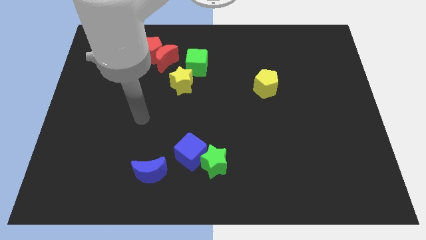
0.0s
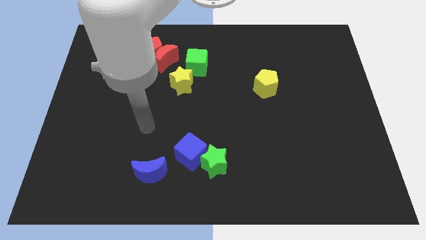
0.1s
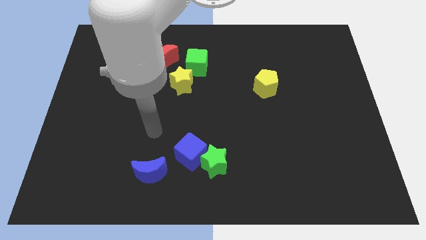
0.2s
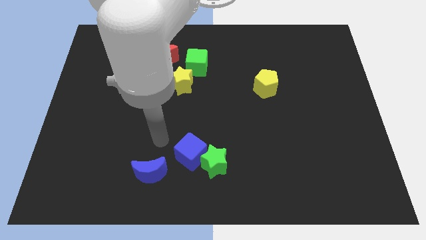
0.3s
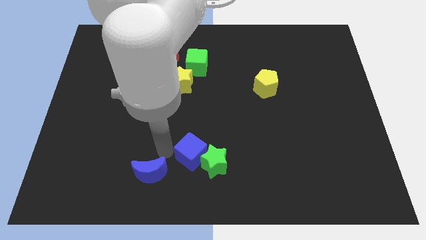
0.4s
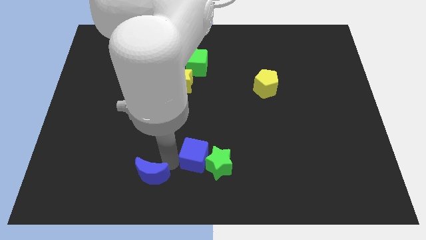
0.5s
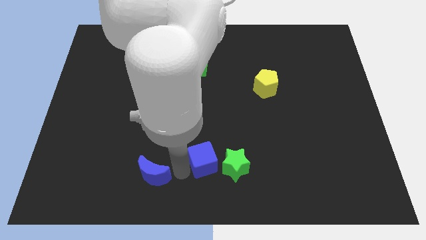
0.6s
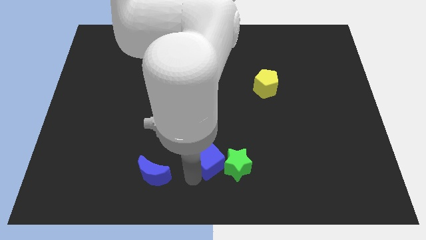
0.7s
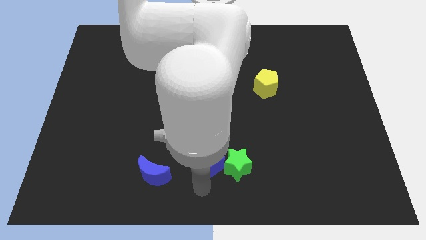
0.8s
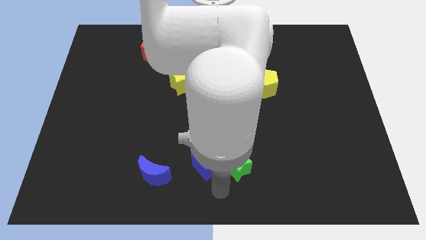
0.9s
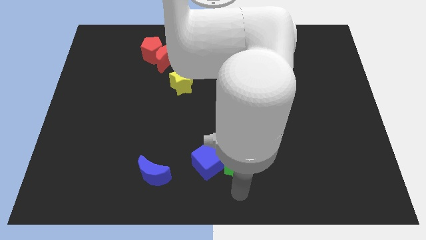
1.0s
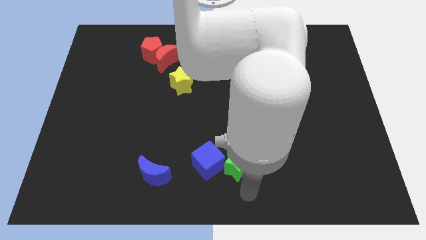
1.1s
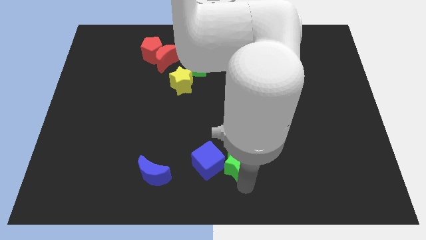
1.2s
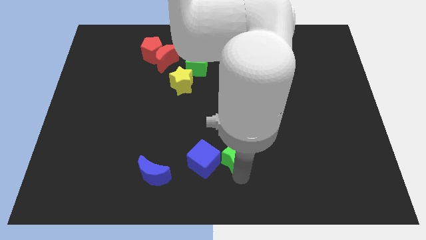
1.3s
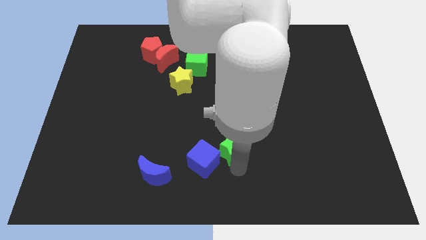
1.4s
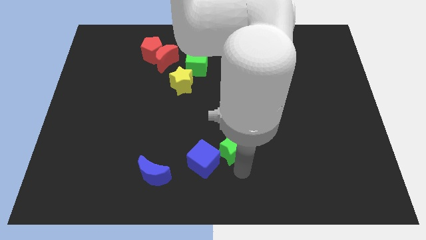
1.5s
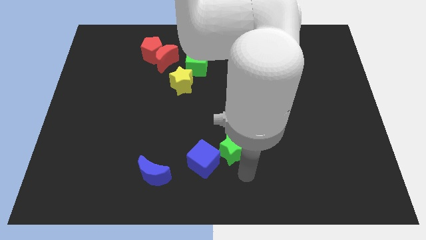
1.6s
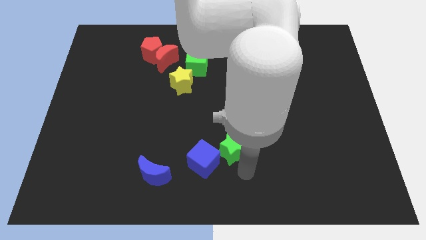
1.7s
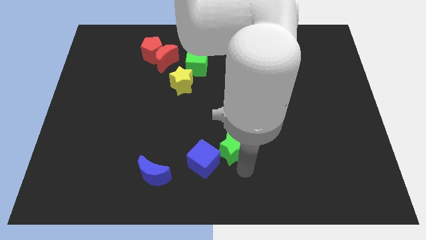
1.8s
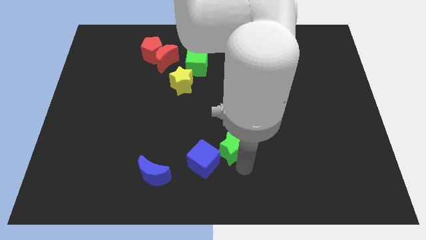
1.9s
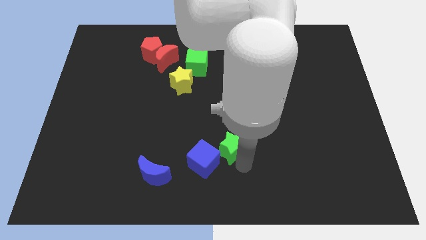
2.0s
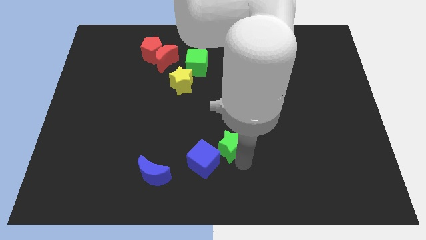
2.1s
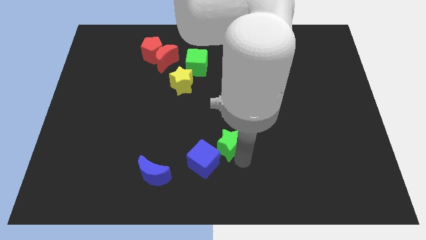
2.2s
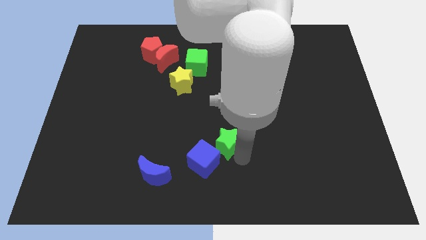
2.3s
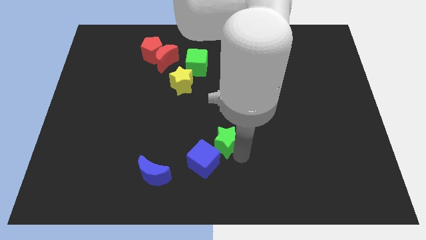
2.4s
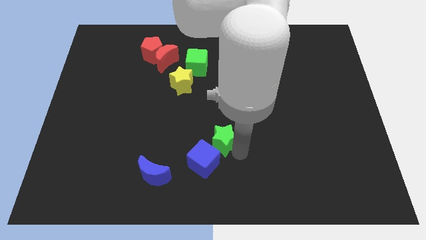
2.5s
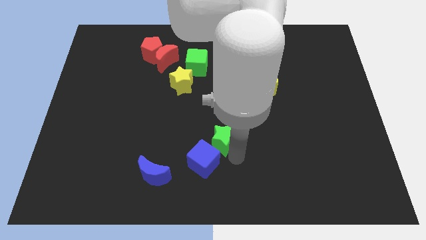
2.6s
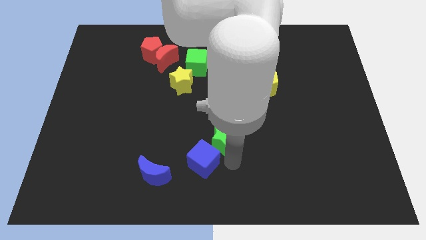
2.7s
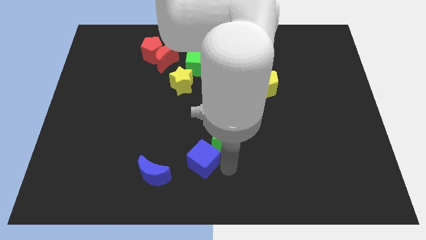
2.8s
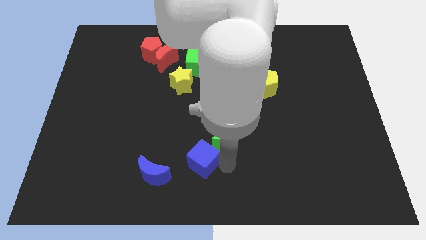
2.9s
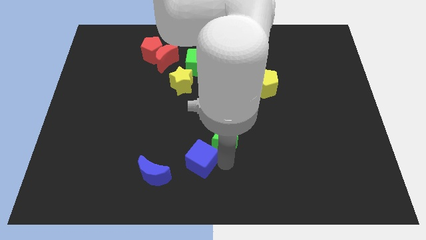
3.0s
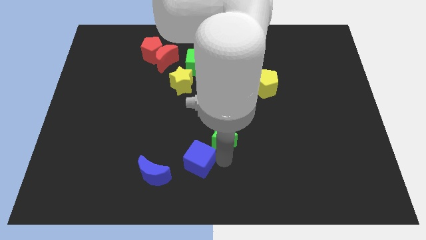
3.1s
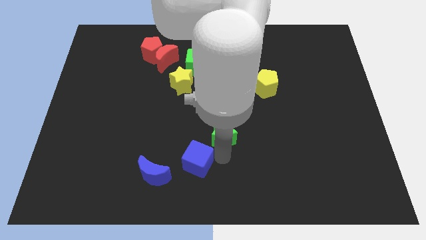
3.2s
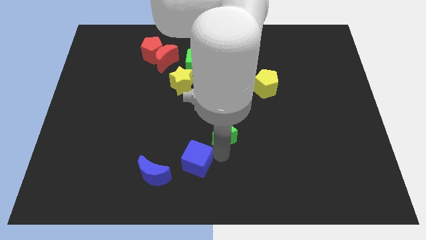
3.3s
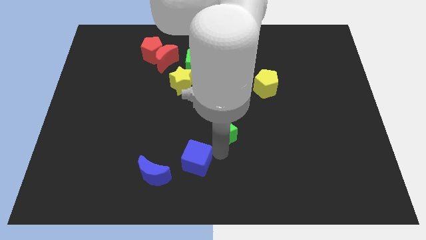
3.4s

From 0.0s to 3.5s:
move the green star slightly up

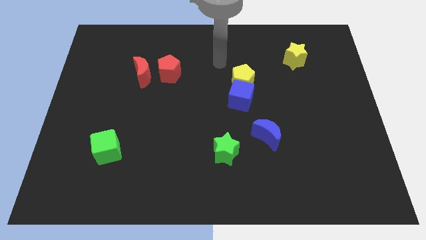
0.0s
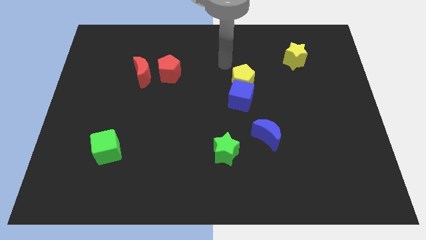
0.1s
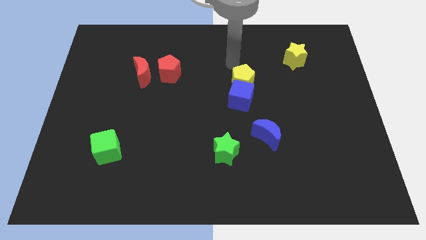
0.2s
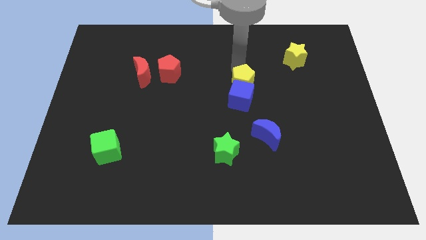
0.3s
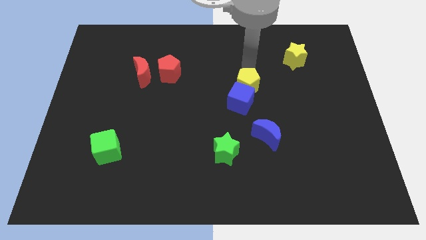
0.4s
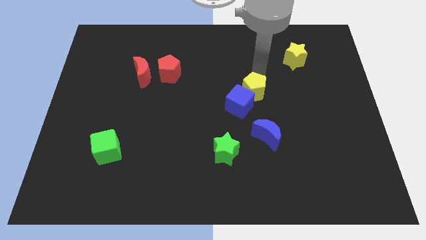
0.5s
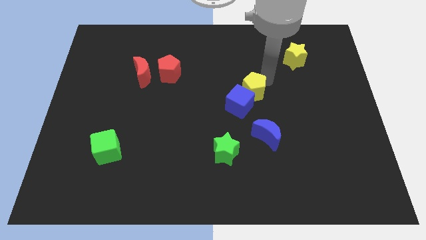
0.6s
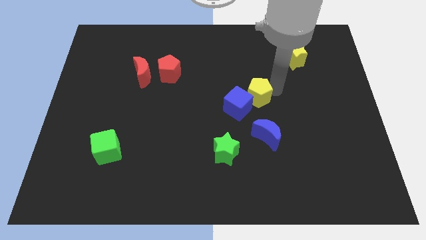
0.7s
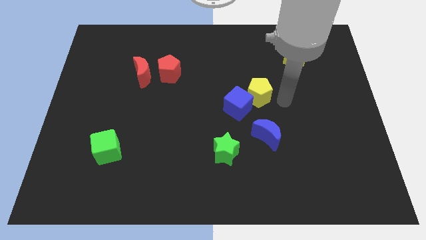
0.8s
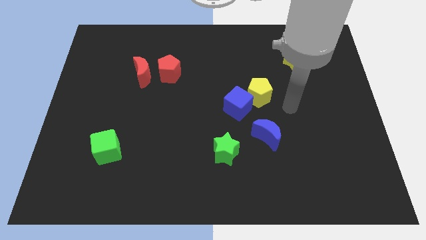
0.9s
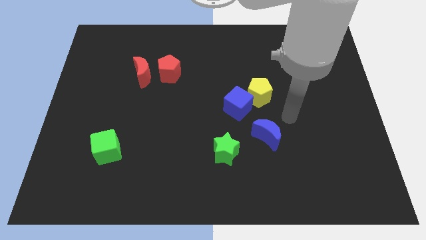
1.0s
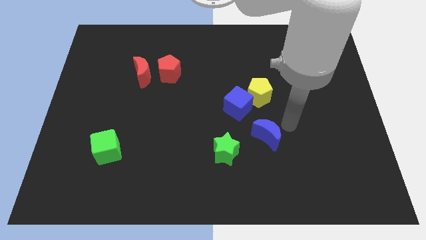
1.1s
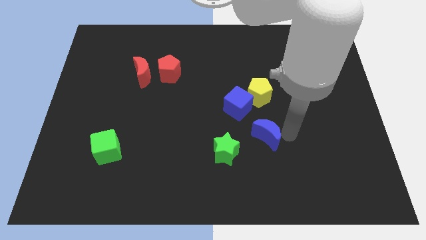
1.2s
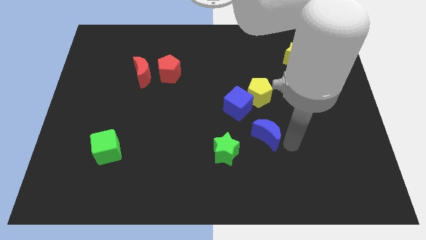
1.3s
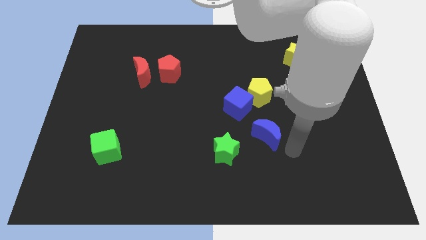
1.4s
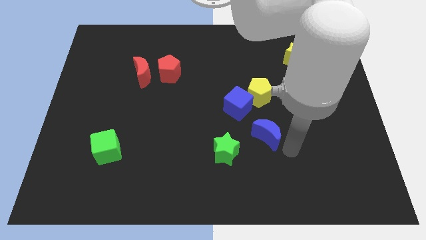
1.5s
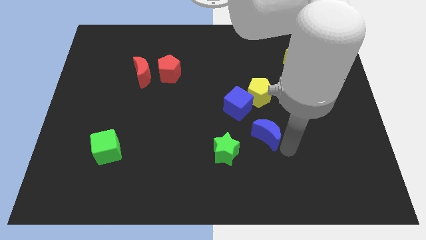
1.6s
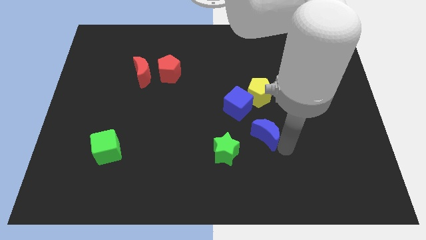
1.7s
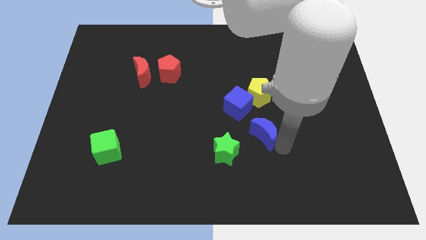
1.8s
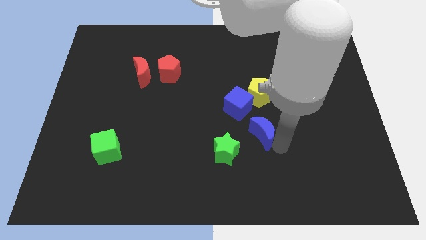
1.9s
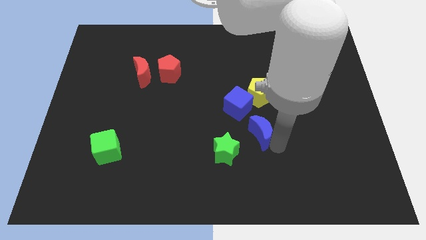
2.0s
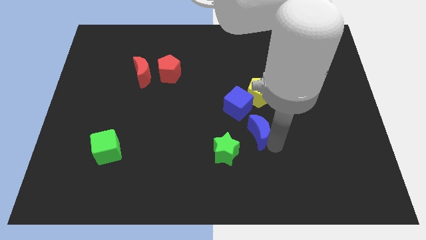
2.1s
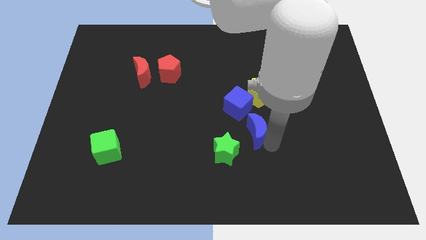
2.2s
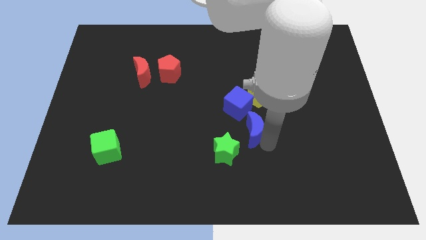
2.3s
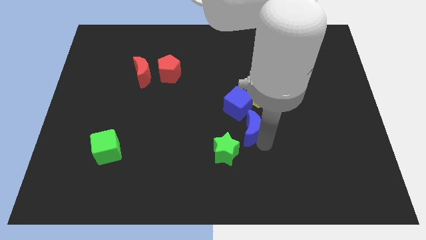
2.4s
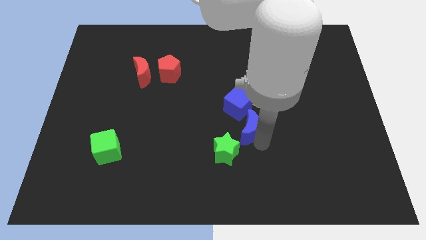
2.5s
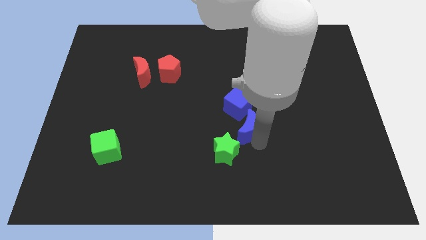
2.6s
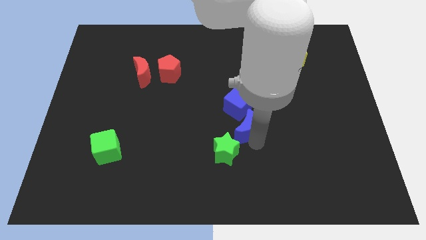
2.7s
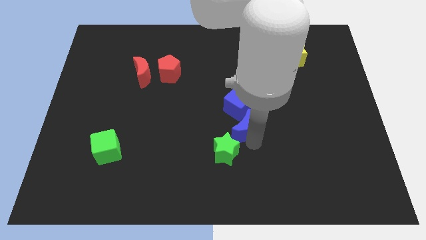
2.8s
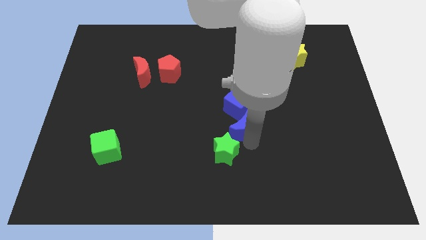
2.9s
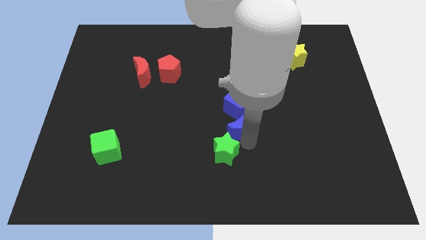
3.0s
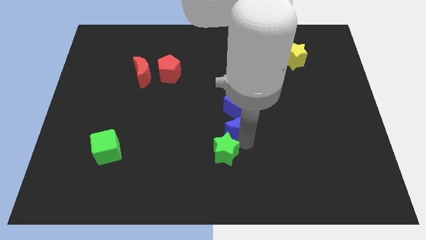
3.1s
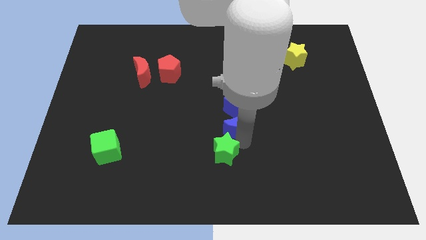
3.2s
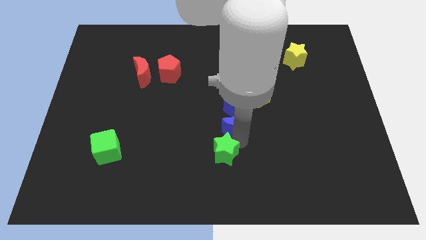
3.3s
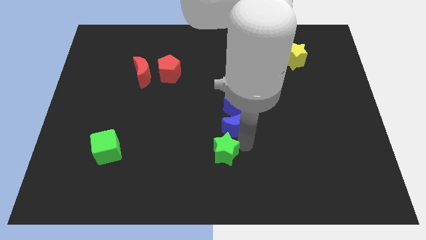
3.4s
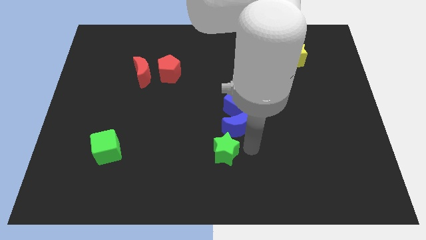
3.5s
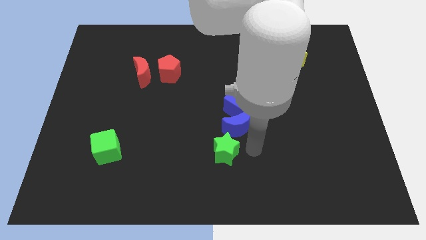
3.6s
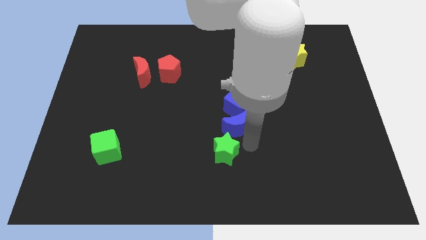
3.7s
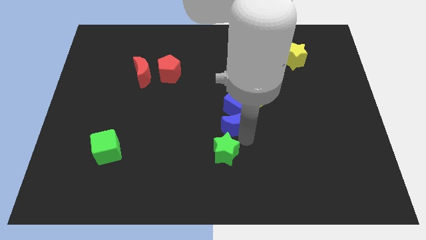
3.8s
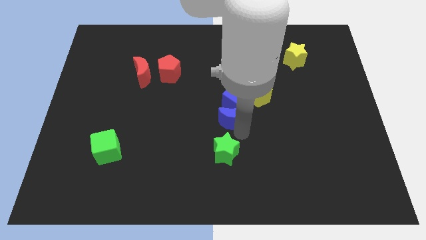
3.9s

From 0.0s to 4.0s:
slide the blue moon slightly diagonally upwards and left

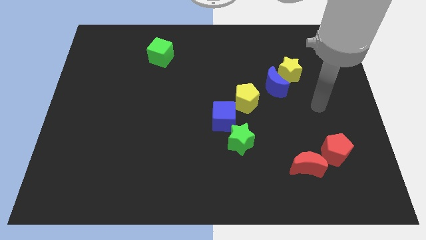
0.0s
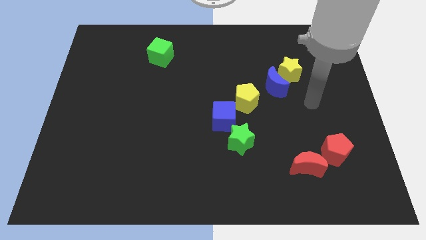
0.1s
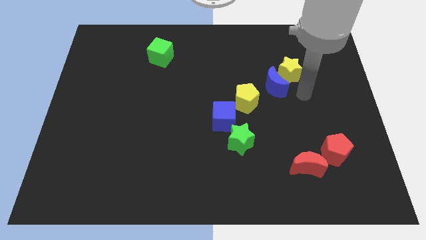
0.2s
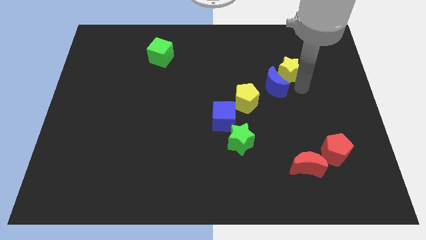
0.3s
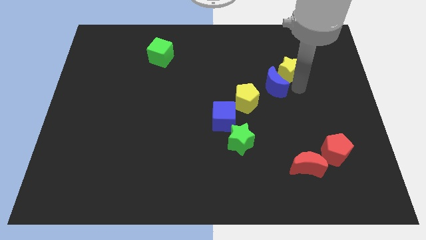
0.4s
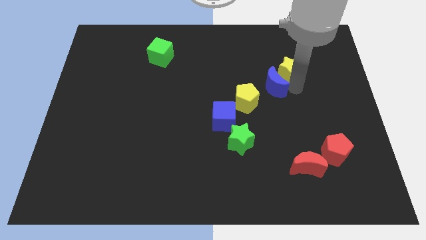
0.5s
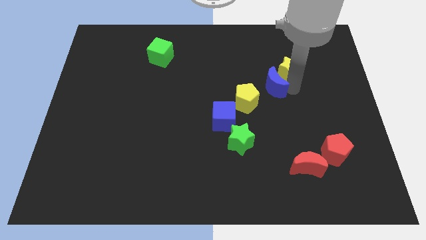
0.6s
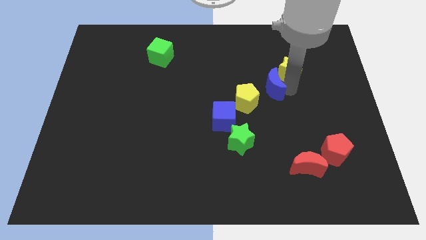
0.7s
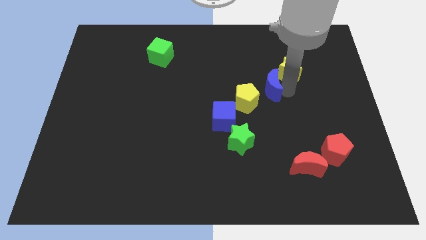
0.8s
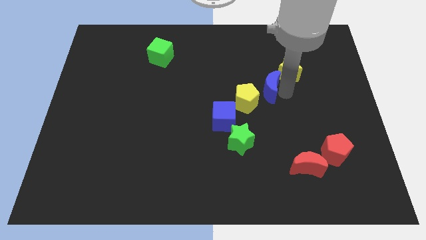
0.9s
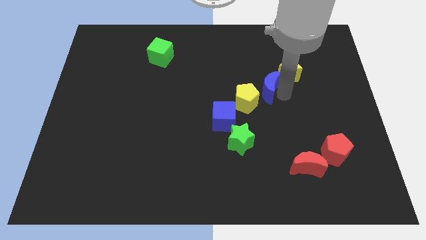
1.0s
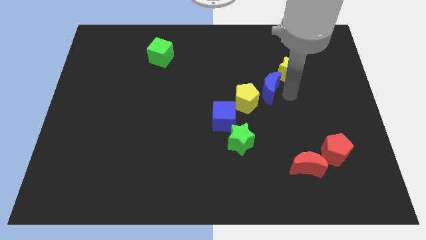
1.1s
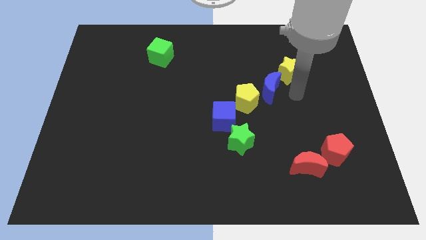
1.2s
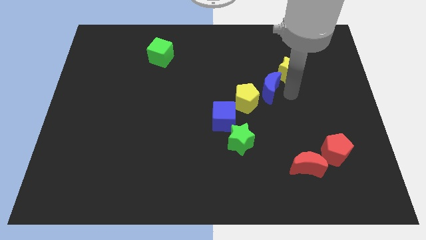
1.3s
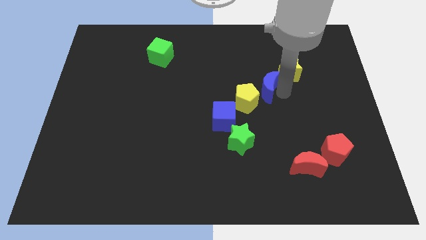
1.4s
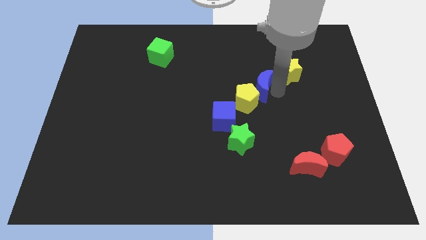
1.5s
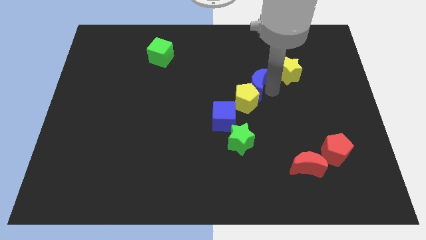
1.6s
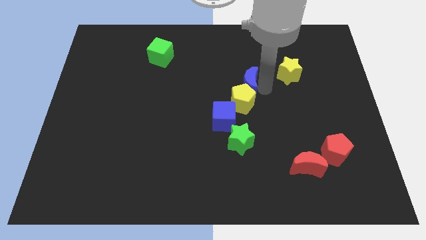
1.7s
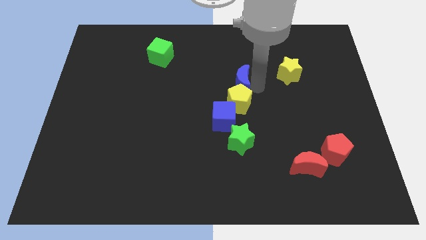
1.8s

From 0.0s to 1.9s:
slide the blue moon to the left slightly
